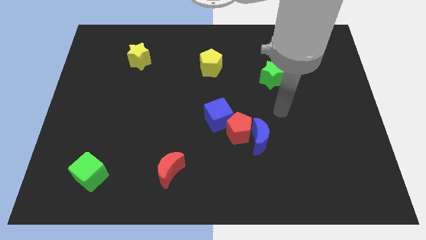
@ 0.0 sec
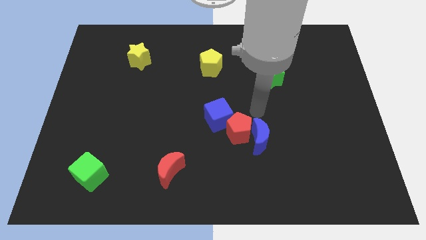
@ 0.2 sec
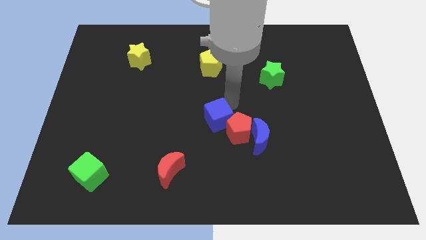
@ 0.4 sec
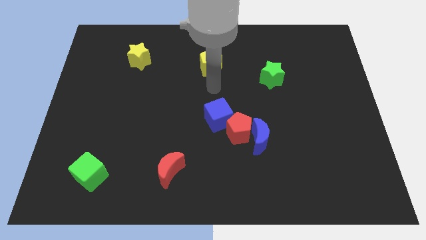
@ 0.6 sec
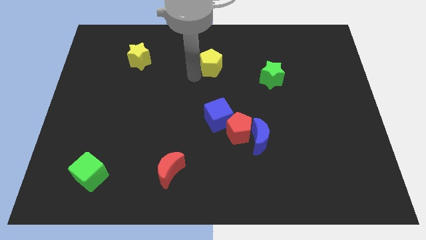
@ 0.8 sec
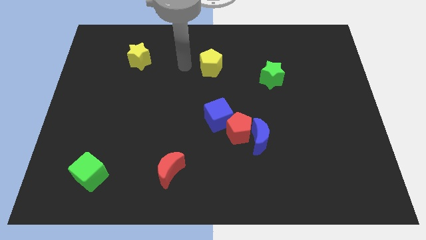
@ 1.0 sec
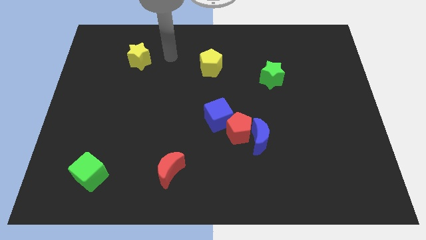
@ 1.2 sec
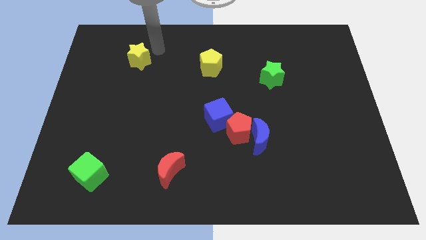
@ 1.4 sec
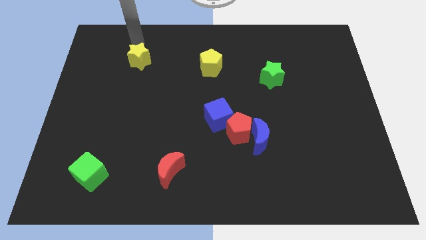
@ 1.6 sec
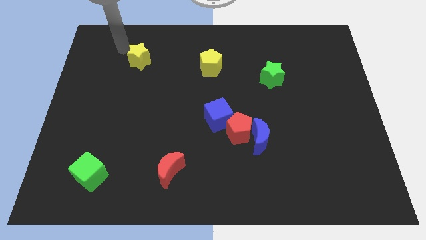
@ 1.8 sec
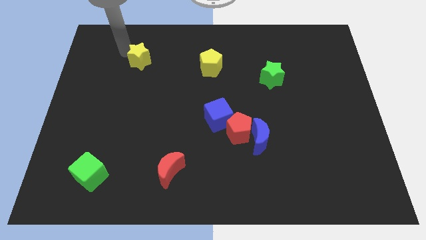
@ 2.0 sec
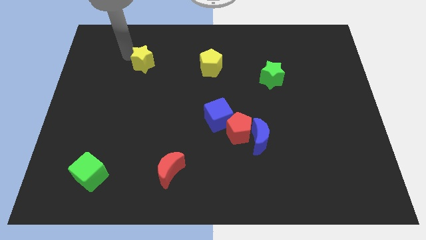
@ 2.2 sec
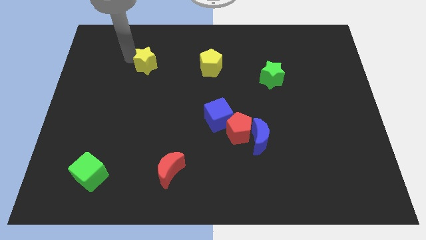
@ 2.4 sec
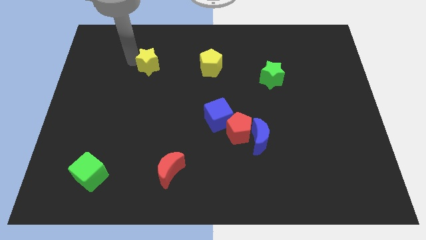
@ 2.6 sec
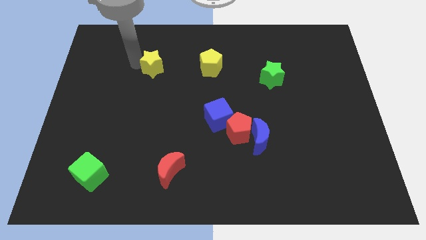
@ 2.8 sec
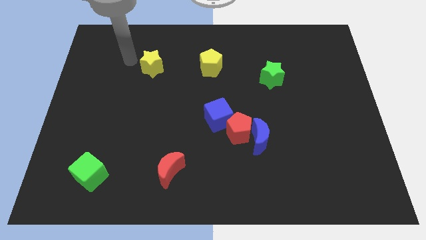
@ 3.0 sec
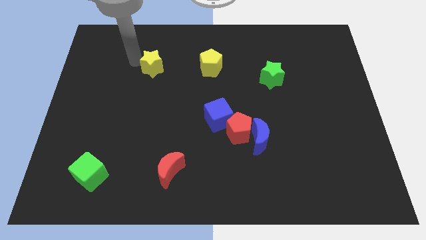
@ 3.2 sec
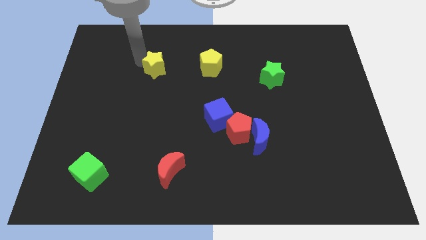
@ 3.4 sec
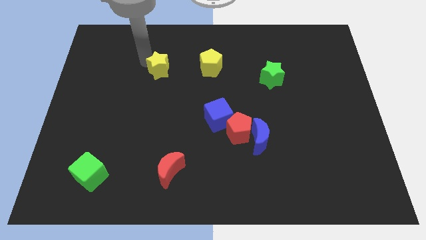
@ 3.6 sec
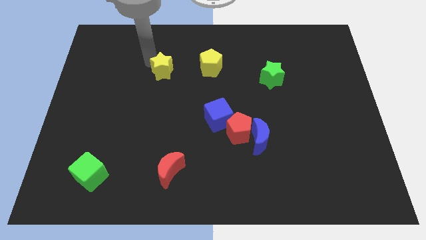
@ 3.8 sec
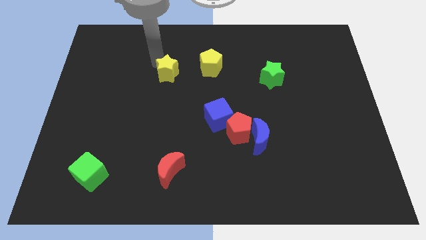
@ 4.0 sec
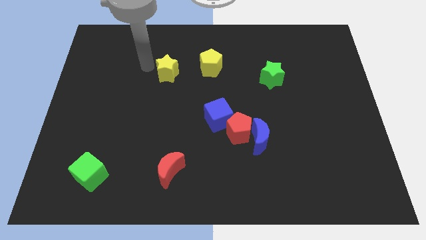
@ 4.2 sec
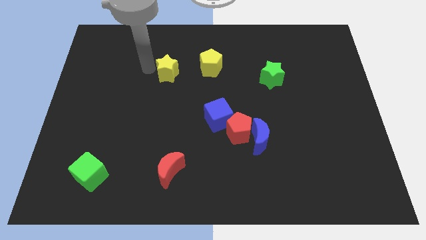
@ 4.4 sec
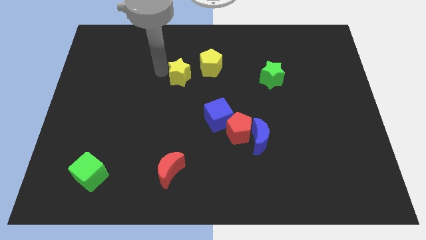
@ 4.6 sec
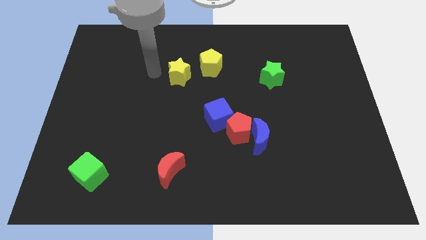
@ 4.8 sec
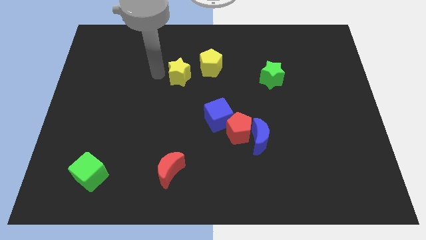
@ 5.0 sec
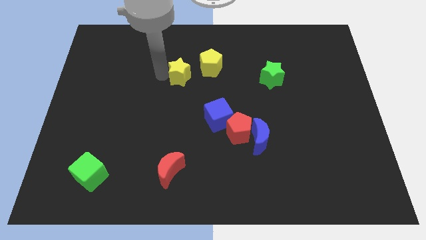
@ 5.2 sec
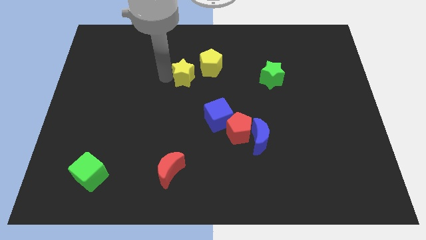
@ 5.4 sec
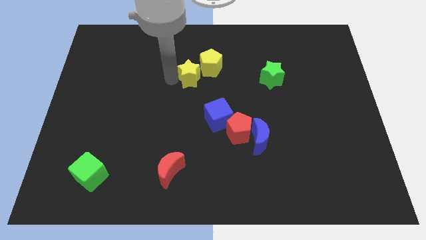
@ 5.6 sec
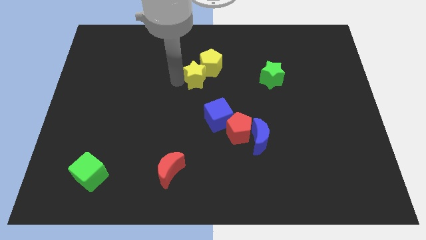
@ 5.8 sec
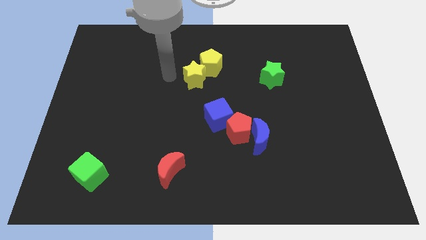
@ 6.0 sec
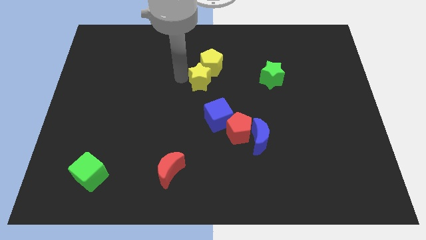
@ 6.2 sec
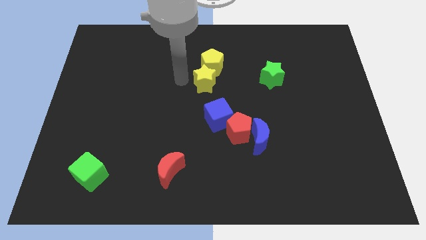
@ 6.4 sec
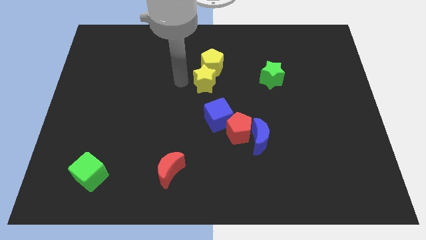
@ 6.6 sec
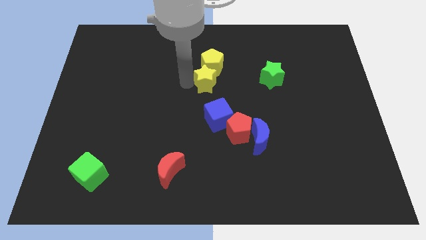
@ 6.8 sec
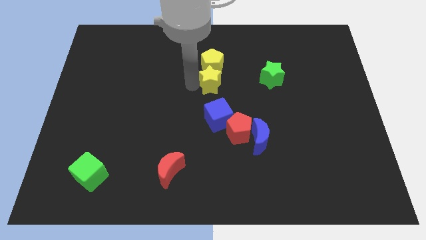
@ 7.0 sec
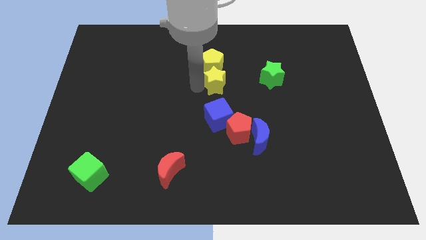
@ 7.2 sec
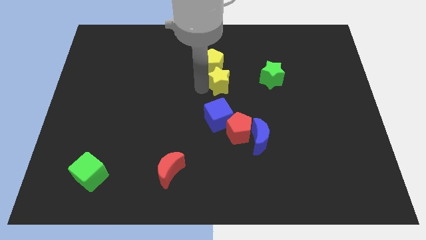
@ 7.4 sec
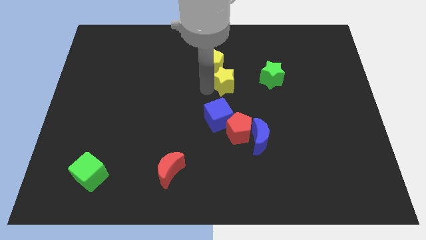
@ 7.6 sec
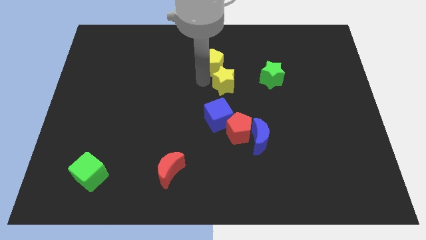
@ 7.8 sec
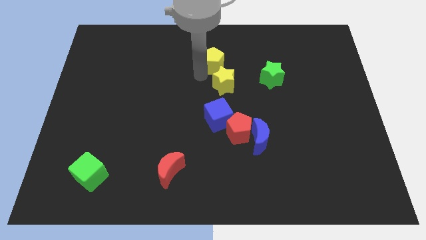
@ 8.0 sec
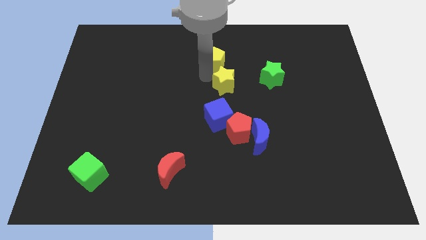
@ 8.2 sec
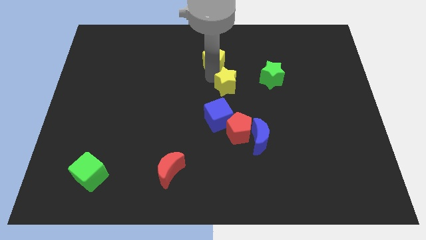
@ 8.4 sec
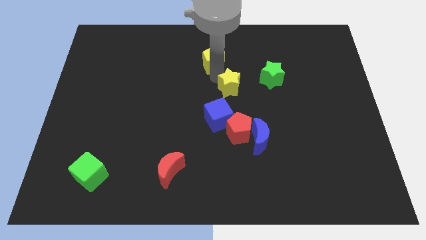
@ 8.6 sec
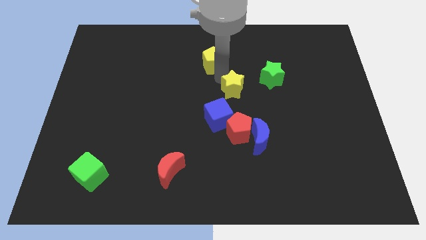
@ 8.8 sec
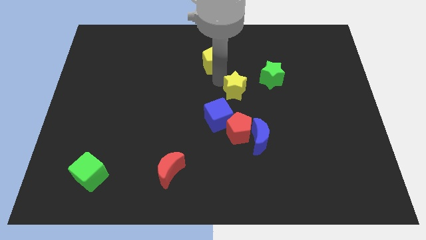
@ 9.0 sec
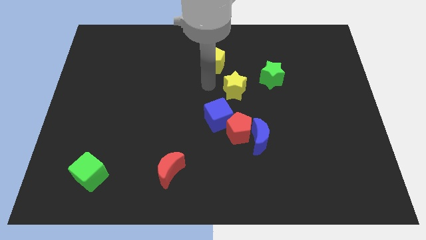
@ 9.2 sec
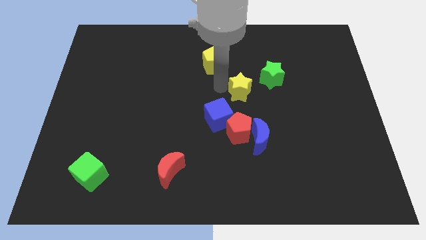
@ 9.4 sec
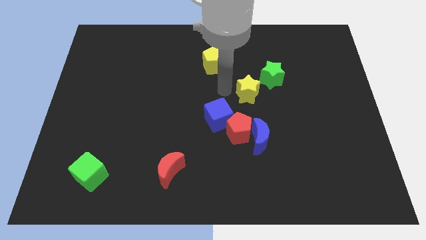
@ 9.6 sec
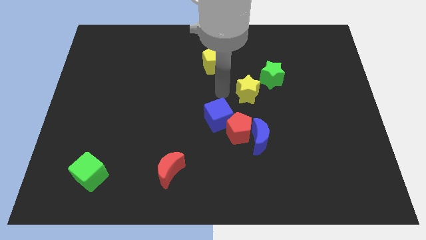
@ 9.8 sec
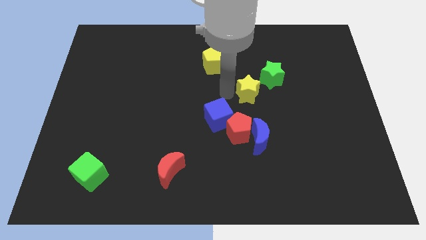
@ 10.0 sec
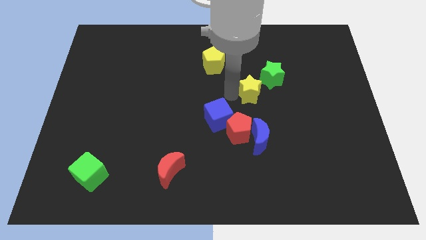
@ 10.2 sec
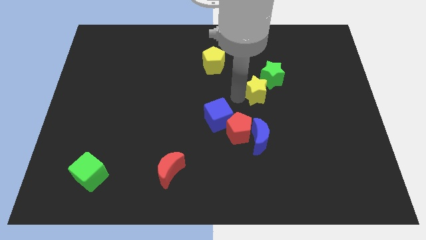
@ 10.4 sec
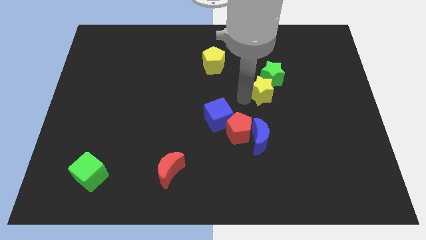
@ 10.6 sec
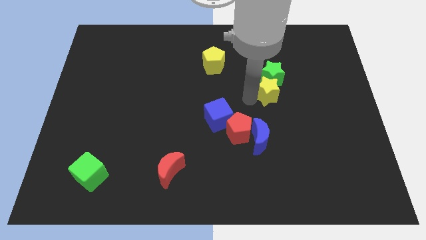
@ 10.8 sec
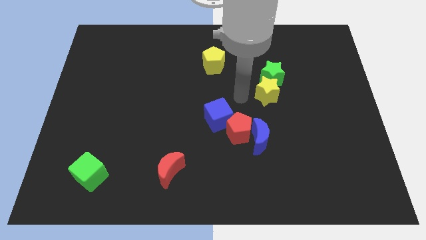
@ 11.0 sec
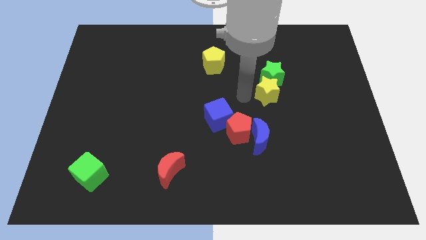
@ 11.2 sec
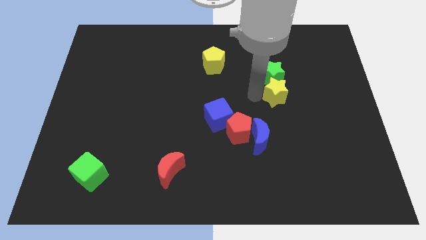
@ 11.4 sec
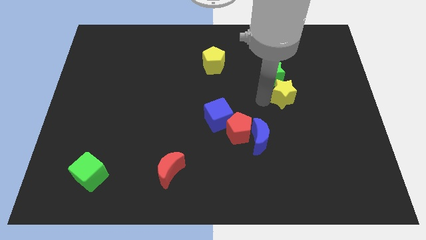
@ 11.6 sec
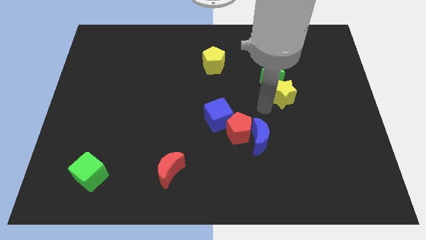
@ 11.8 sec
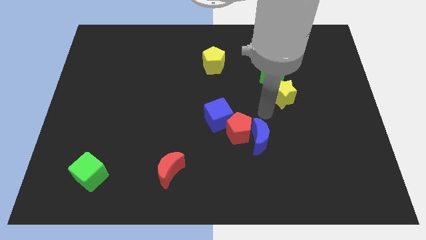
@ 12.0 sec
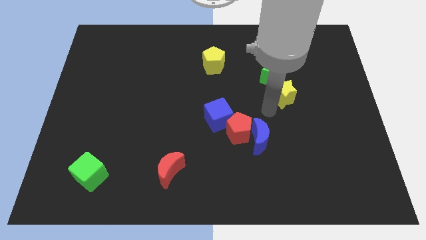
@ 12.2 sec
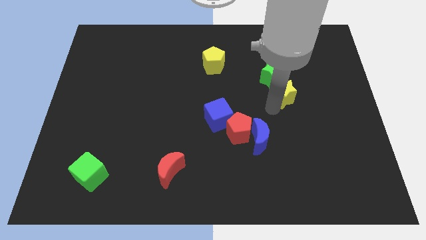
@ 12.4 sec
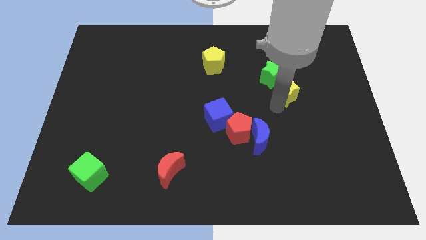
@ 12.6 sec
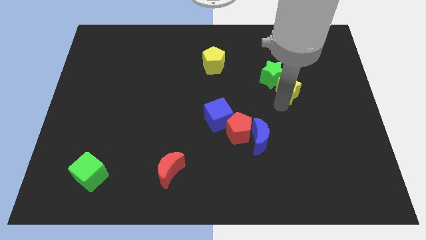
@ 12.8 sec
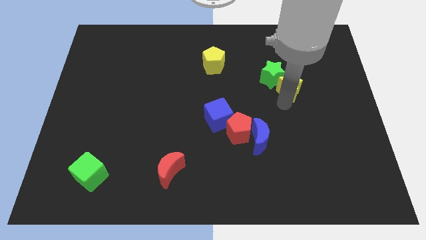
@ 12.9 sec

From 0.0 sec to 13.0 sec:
slide the yellow star right of the green star

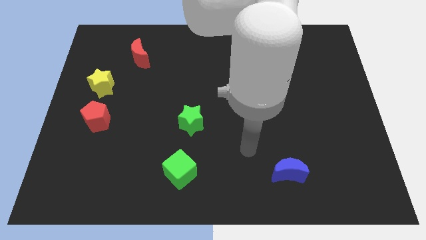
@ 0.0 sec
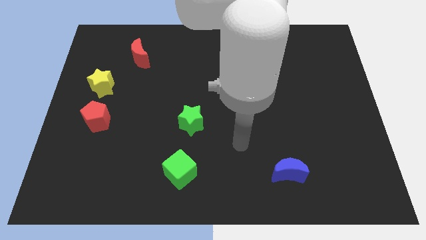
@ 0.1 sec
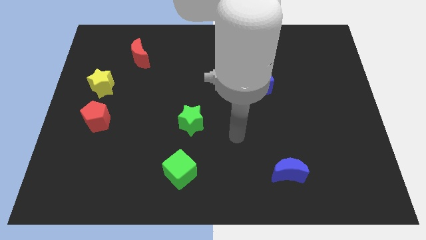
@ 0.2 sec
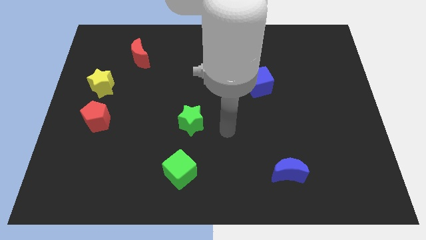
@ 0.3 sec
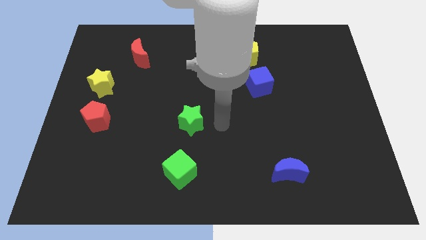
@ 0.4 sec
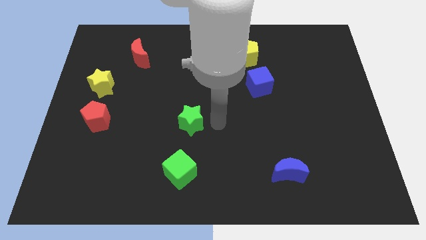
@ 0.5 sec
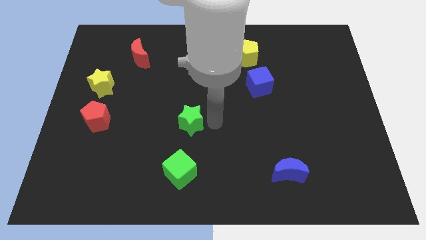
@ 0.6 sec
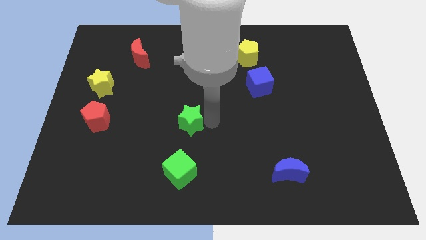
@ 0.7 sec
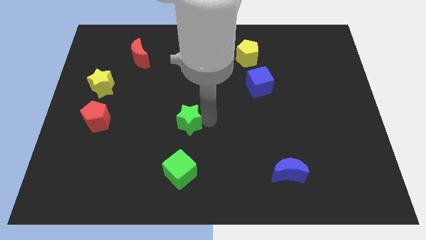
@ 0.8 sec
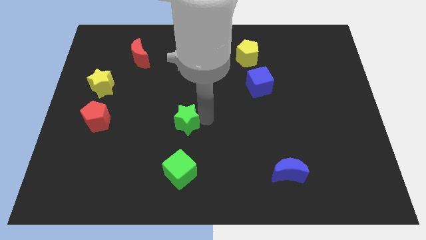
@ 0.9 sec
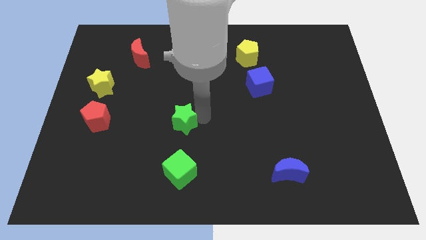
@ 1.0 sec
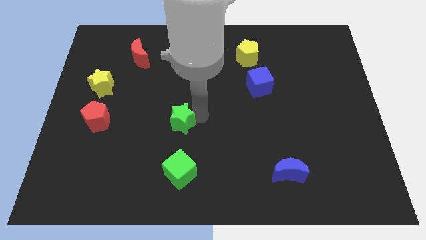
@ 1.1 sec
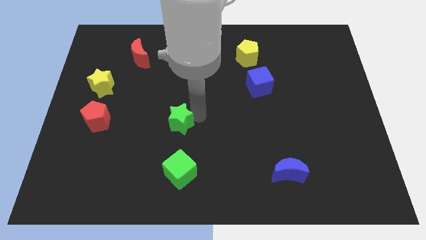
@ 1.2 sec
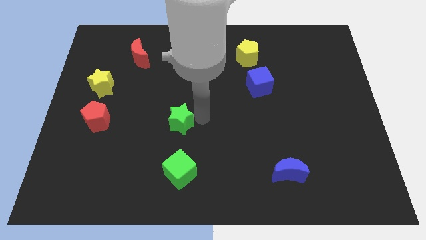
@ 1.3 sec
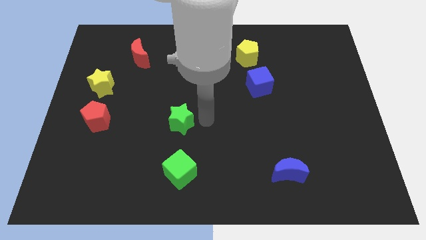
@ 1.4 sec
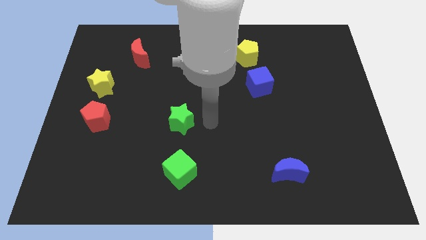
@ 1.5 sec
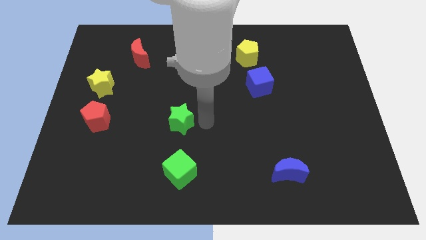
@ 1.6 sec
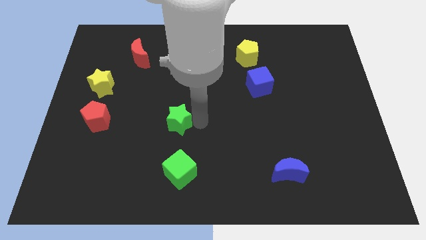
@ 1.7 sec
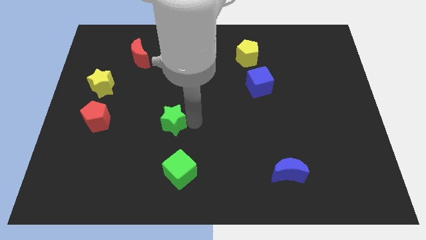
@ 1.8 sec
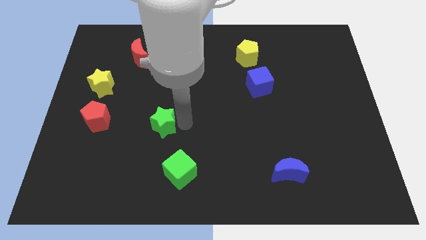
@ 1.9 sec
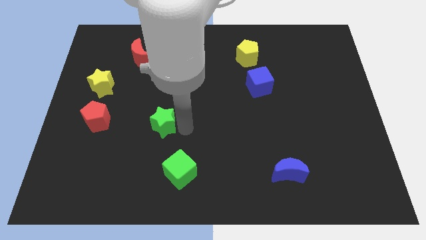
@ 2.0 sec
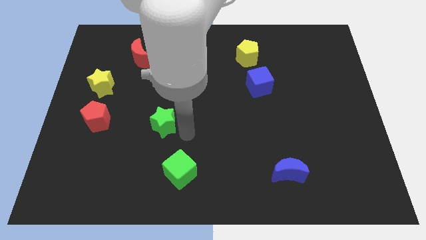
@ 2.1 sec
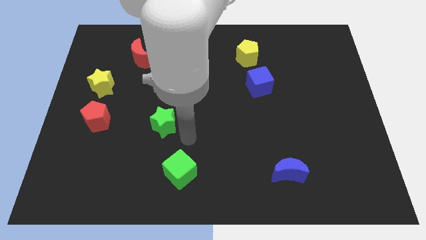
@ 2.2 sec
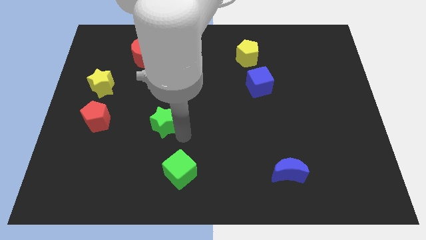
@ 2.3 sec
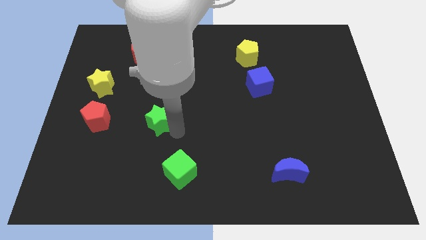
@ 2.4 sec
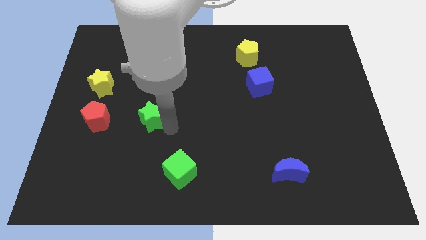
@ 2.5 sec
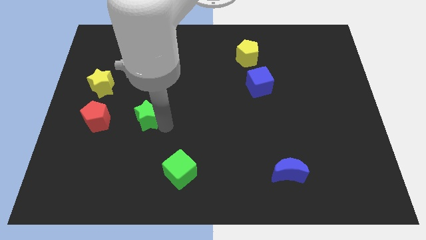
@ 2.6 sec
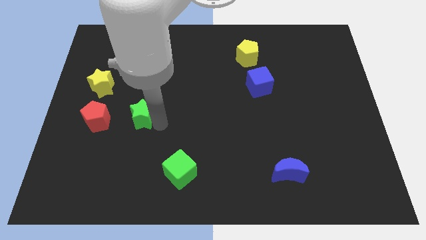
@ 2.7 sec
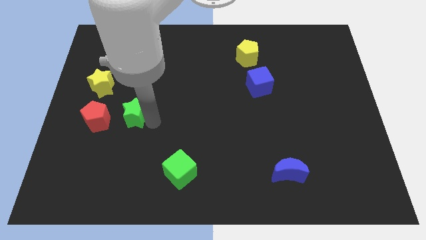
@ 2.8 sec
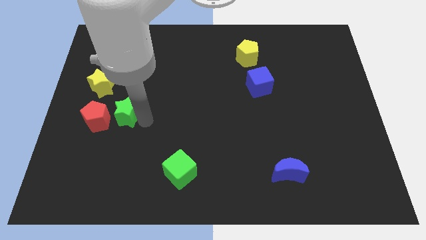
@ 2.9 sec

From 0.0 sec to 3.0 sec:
push the green star to the top right side of the red pentagon
